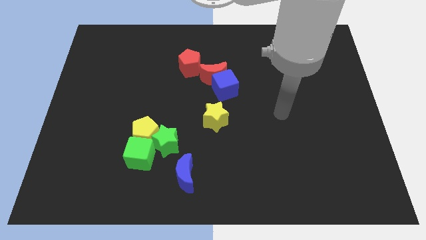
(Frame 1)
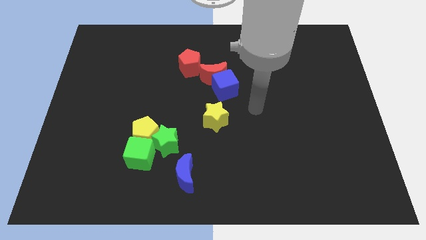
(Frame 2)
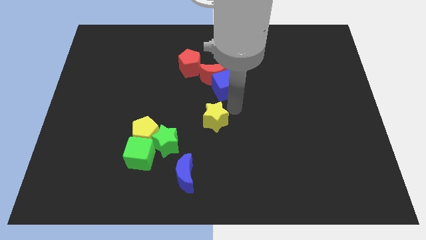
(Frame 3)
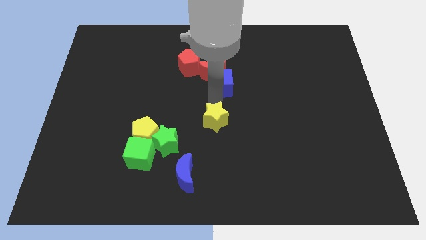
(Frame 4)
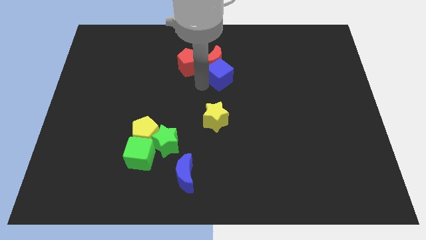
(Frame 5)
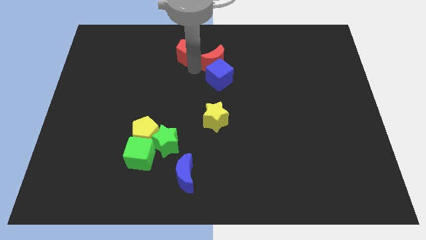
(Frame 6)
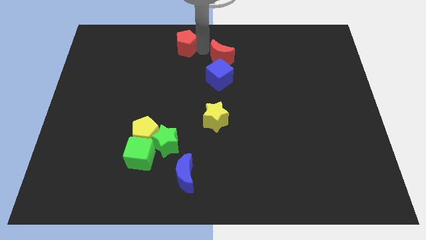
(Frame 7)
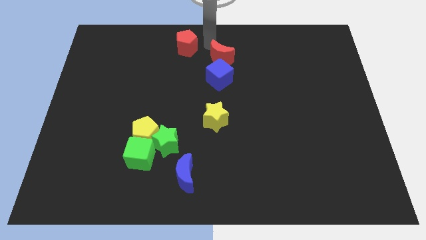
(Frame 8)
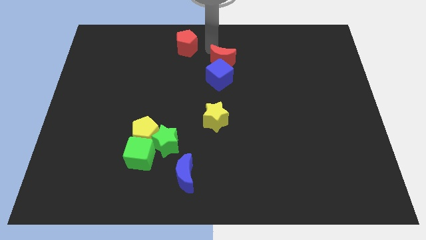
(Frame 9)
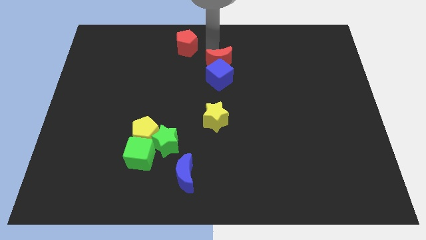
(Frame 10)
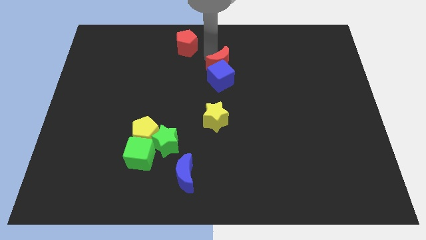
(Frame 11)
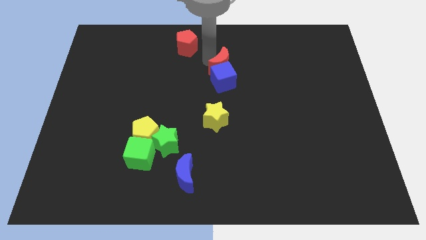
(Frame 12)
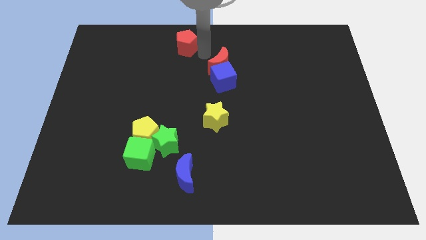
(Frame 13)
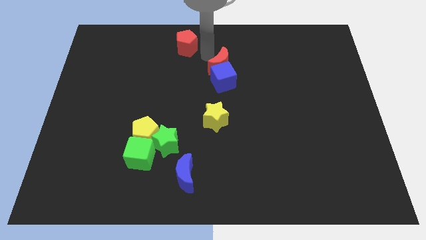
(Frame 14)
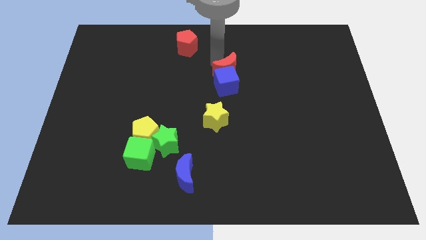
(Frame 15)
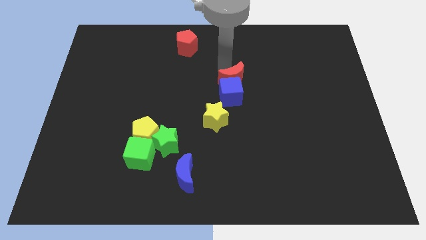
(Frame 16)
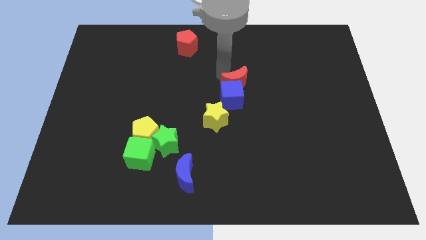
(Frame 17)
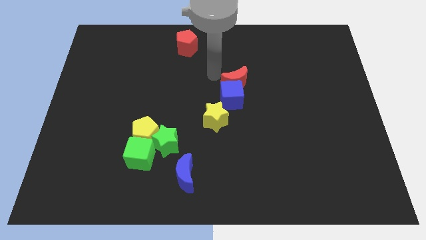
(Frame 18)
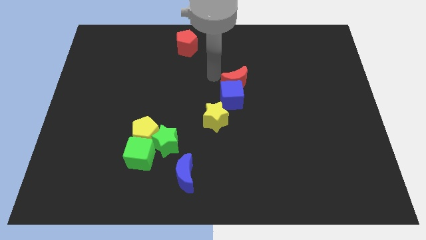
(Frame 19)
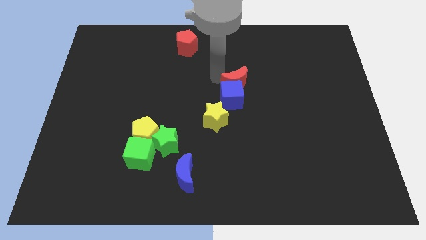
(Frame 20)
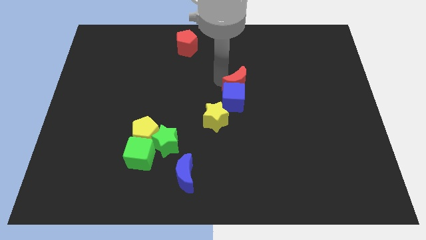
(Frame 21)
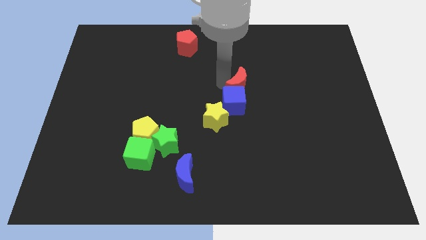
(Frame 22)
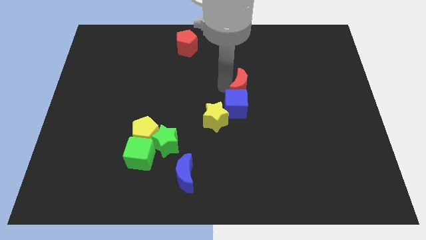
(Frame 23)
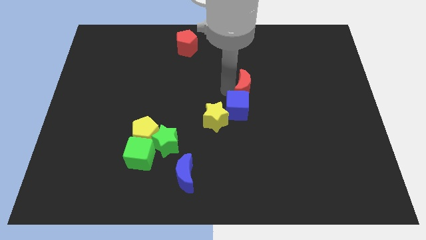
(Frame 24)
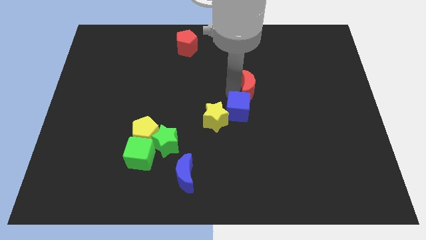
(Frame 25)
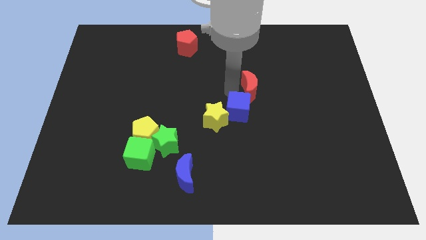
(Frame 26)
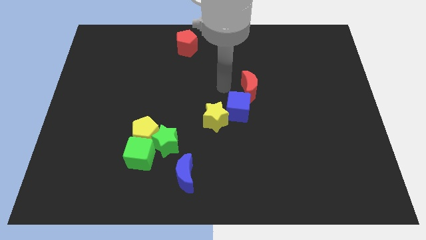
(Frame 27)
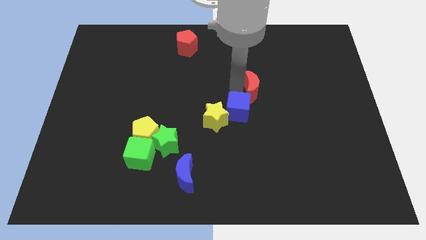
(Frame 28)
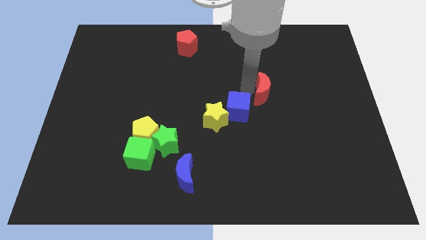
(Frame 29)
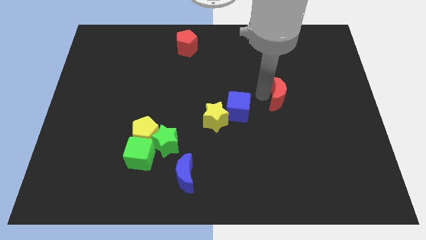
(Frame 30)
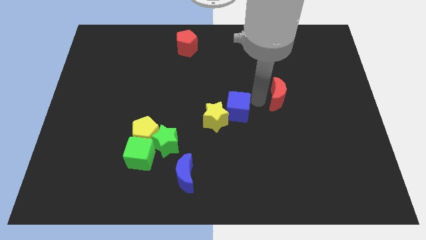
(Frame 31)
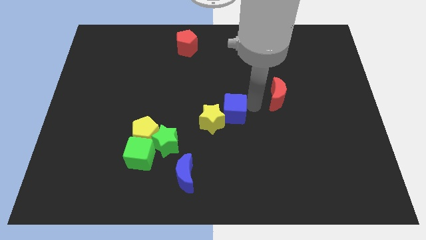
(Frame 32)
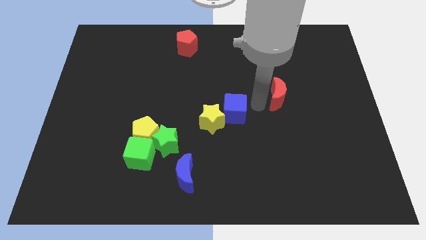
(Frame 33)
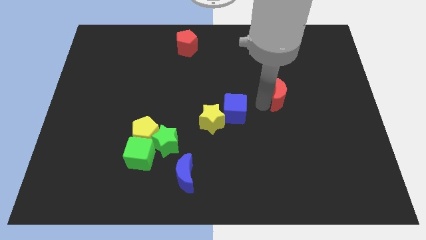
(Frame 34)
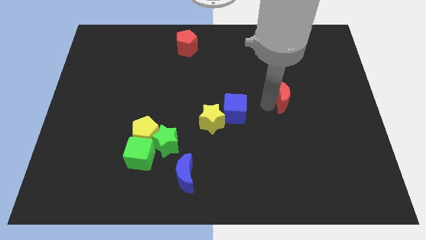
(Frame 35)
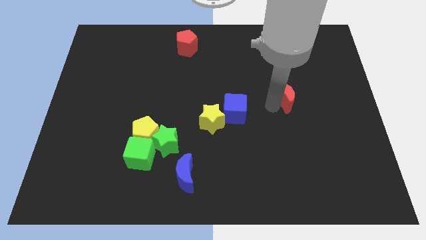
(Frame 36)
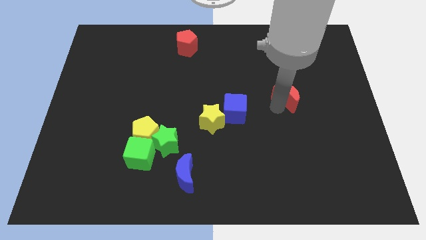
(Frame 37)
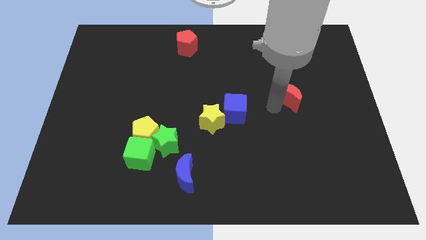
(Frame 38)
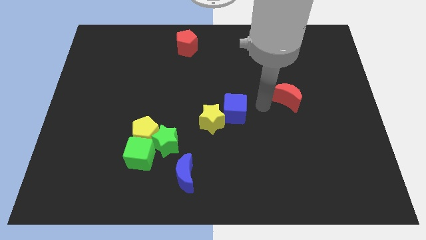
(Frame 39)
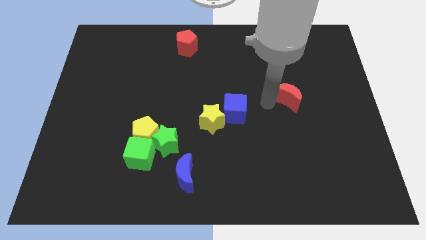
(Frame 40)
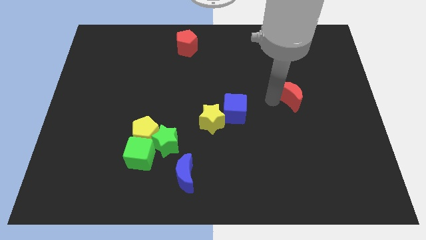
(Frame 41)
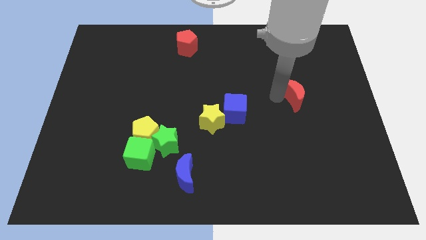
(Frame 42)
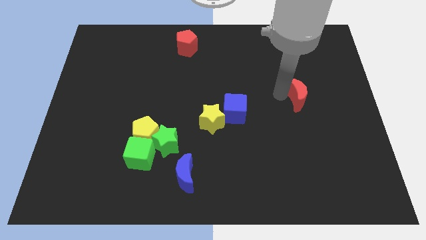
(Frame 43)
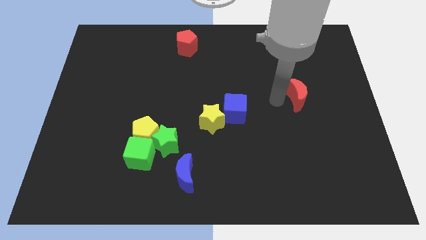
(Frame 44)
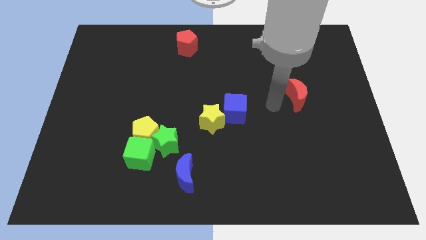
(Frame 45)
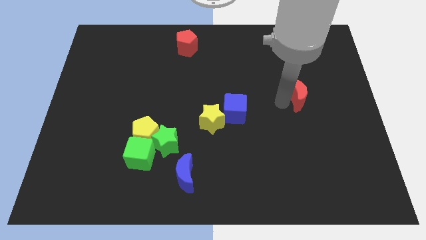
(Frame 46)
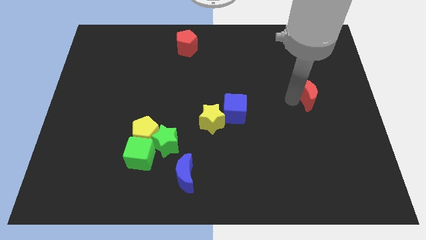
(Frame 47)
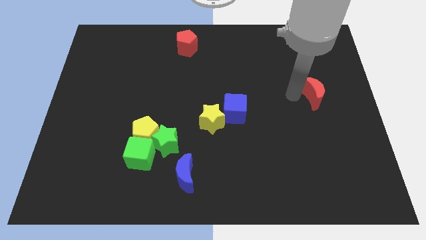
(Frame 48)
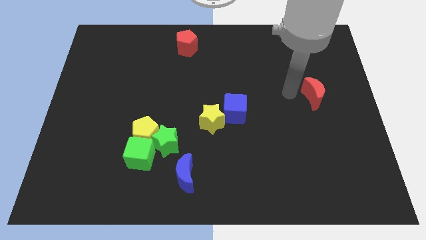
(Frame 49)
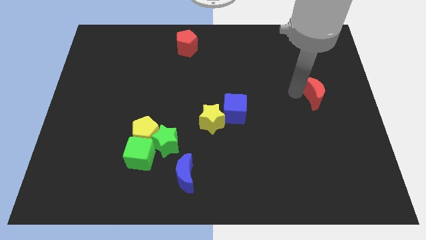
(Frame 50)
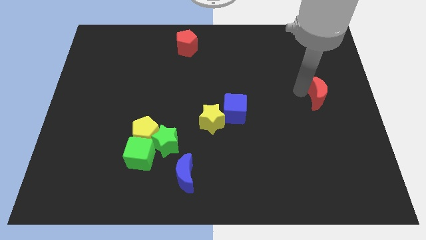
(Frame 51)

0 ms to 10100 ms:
put the red moon to the center right

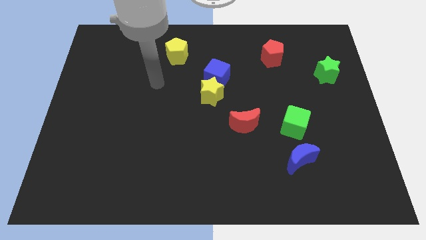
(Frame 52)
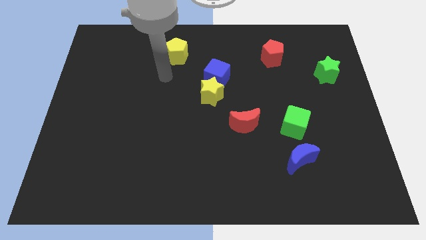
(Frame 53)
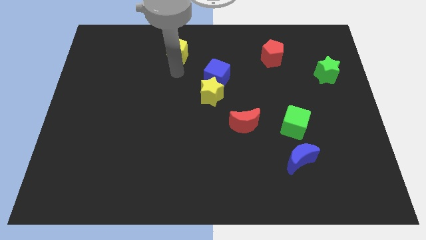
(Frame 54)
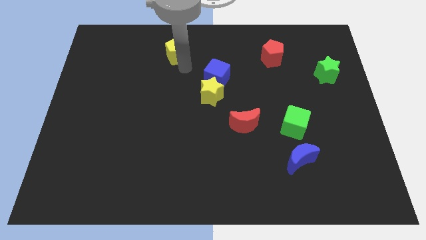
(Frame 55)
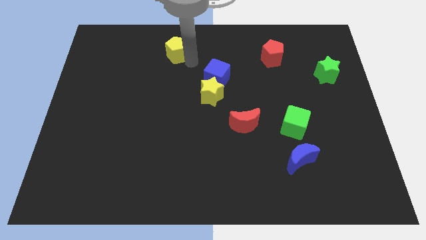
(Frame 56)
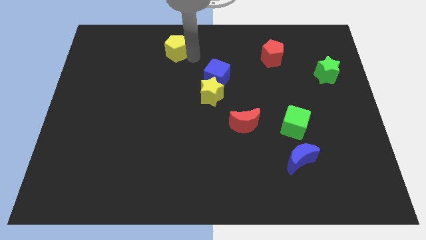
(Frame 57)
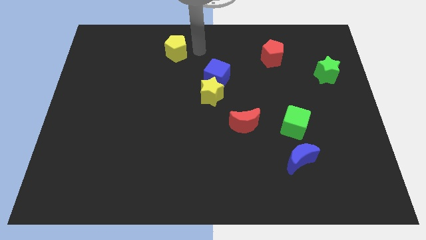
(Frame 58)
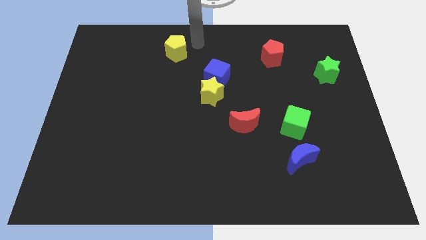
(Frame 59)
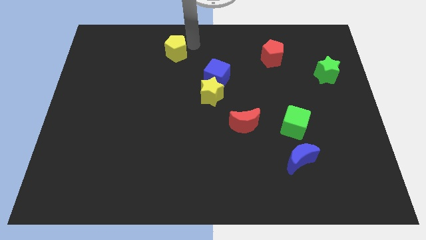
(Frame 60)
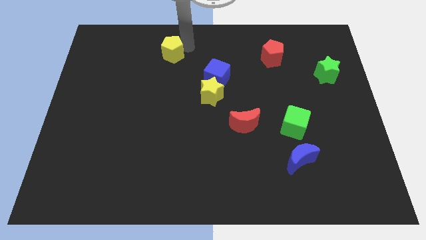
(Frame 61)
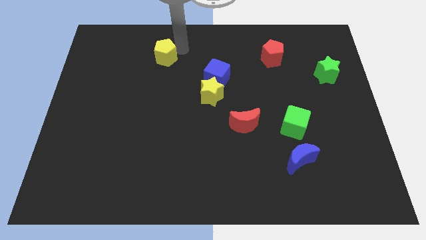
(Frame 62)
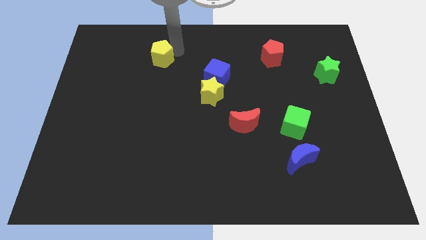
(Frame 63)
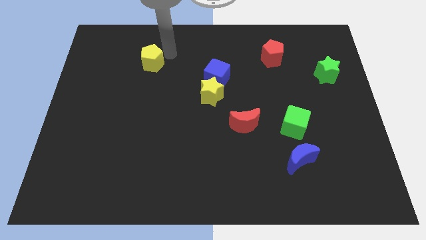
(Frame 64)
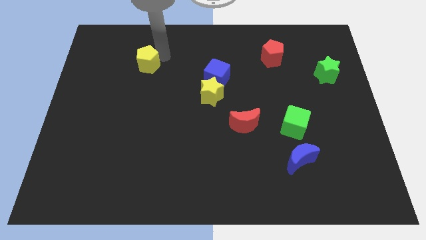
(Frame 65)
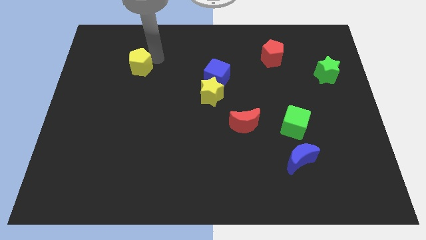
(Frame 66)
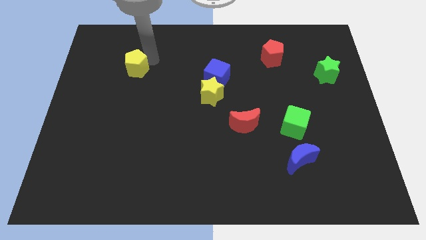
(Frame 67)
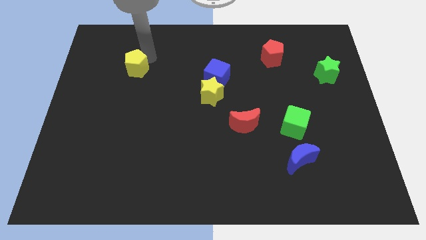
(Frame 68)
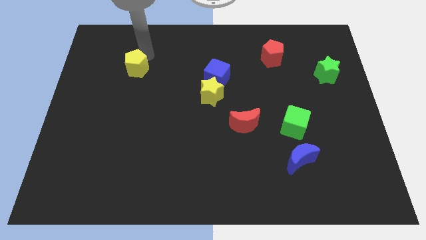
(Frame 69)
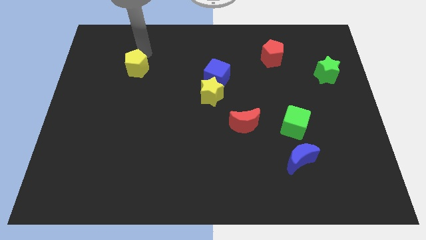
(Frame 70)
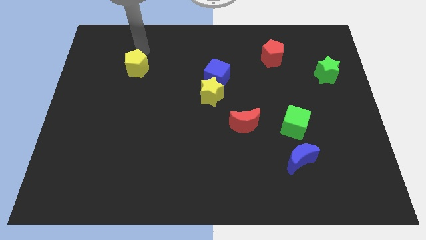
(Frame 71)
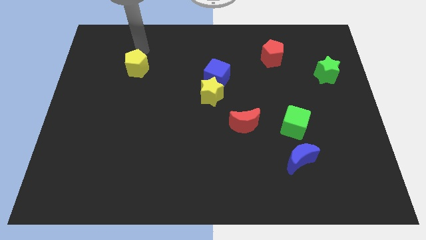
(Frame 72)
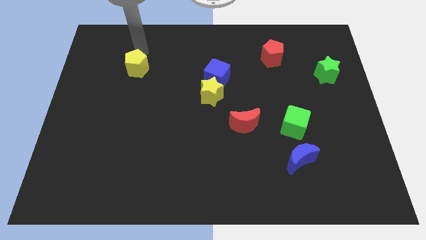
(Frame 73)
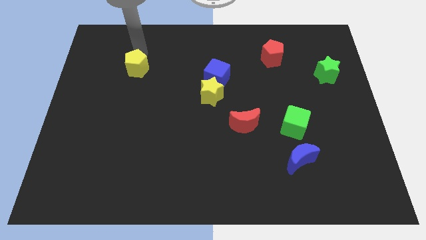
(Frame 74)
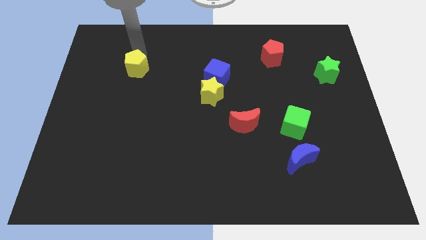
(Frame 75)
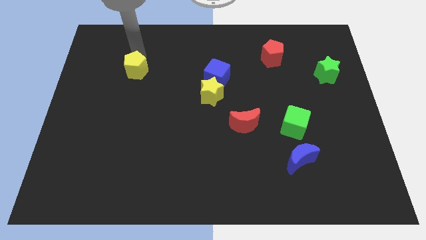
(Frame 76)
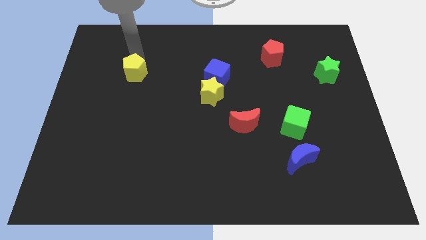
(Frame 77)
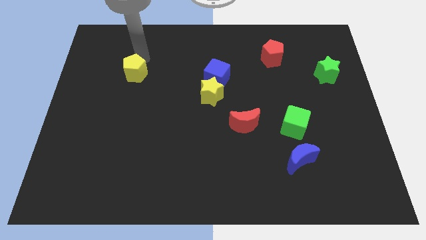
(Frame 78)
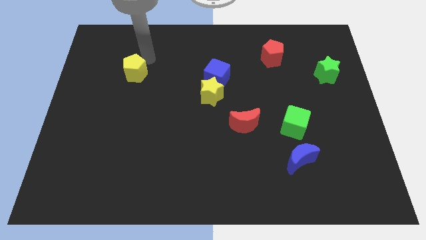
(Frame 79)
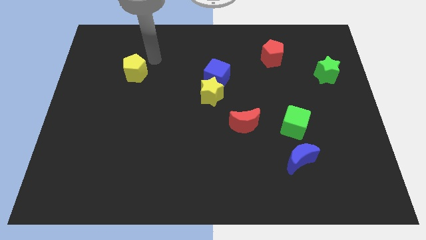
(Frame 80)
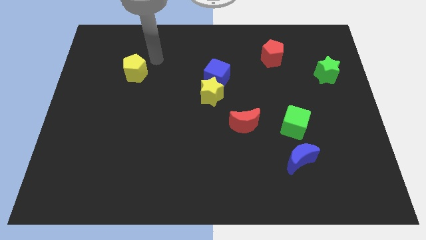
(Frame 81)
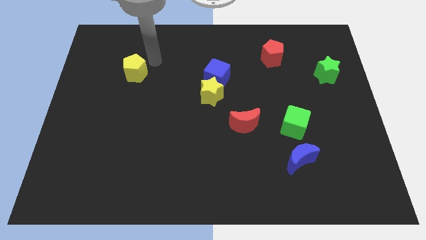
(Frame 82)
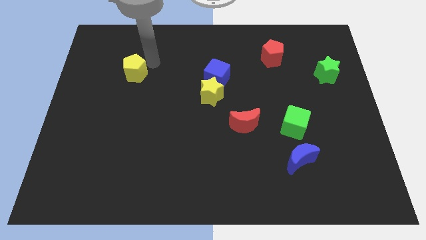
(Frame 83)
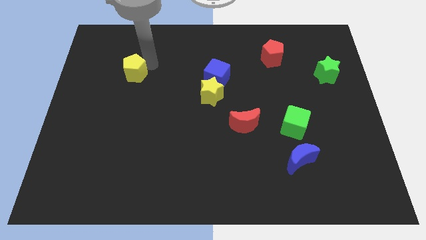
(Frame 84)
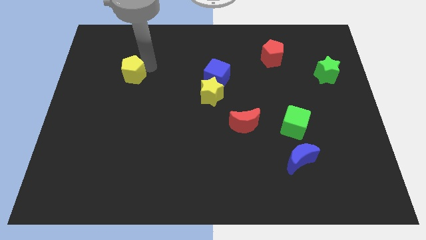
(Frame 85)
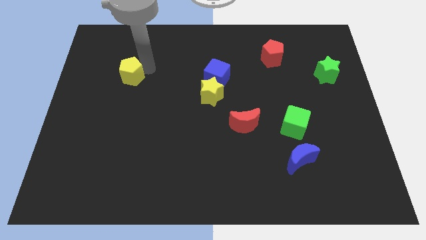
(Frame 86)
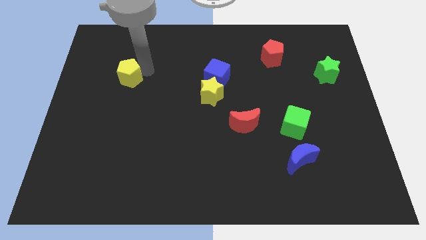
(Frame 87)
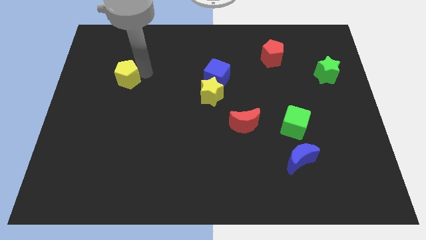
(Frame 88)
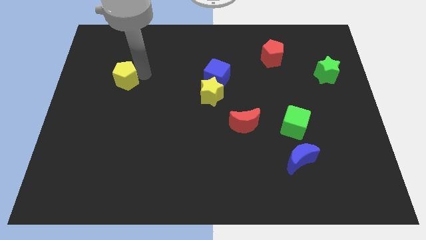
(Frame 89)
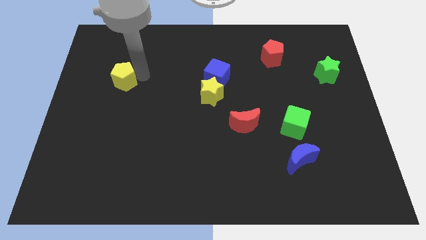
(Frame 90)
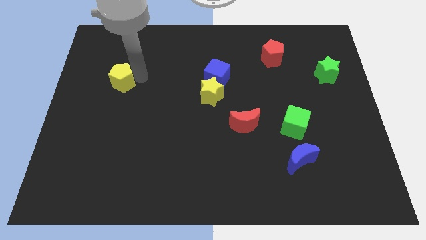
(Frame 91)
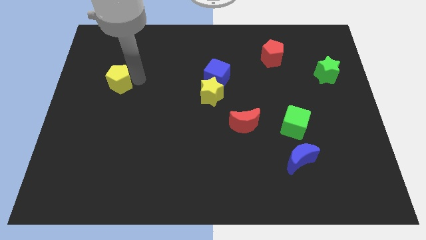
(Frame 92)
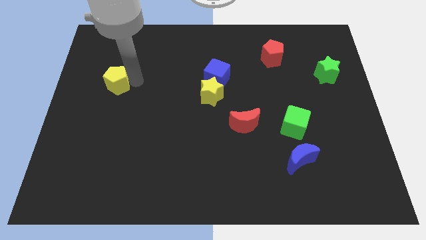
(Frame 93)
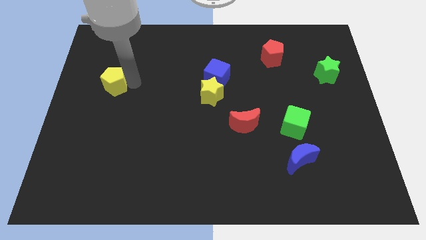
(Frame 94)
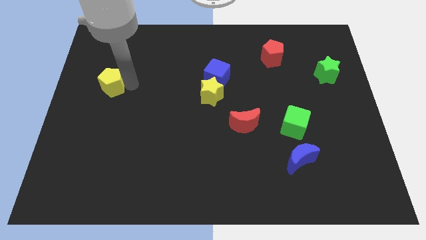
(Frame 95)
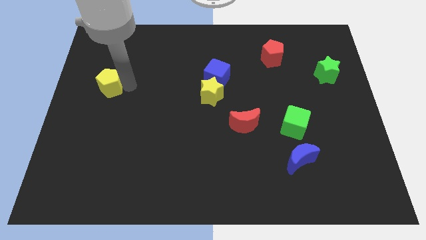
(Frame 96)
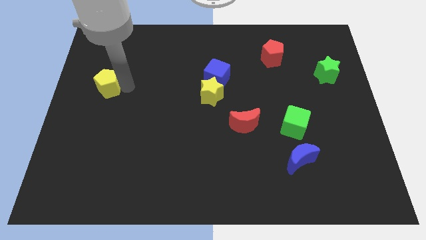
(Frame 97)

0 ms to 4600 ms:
slide the yellow pentagon to the left side of the board
